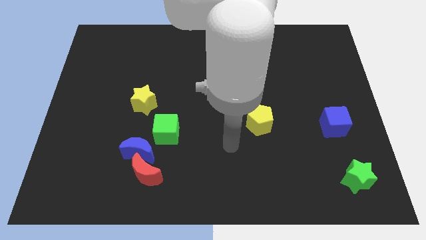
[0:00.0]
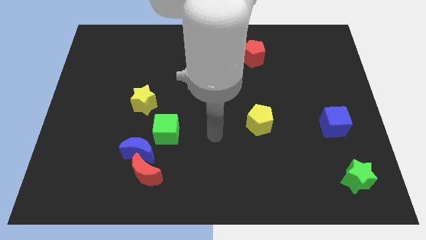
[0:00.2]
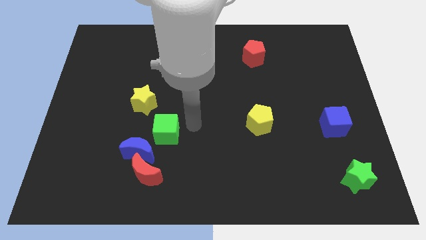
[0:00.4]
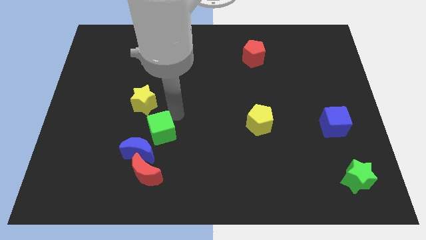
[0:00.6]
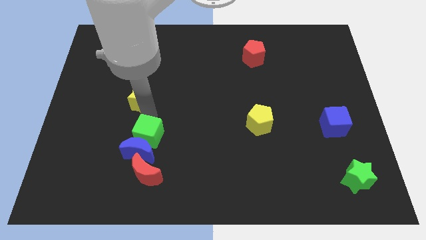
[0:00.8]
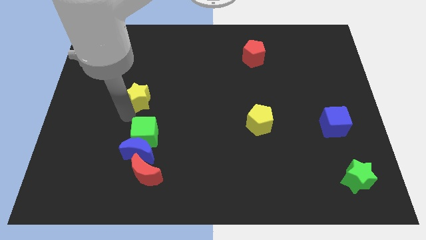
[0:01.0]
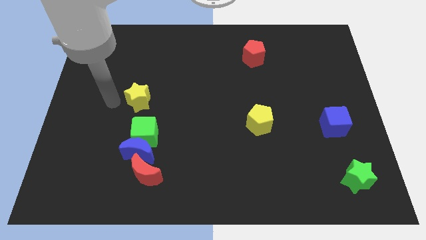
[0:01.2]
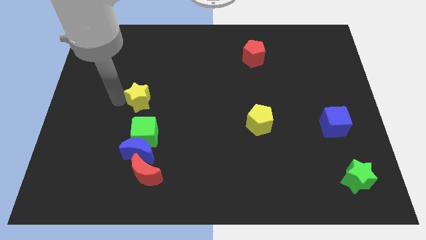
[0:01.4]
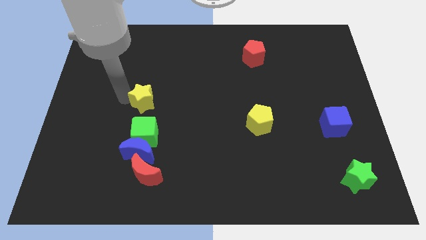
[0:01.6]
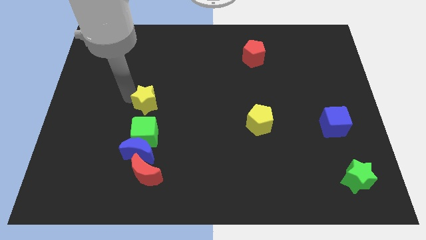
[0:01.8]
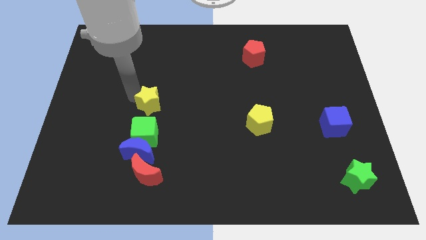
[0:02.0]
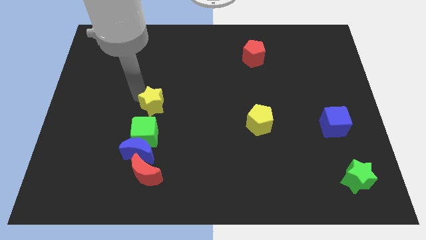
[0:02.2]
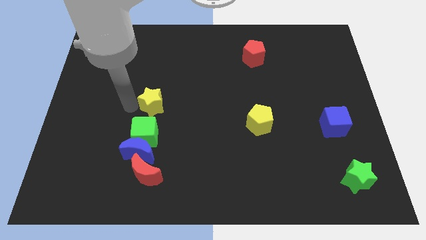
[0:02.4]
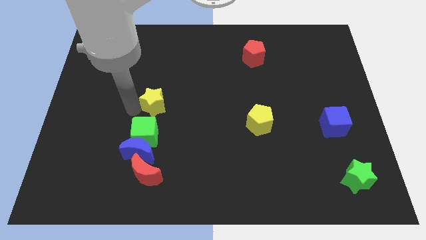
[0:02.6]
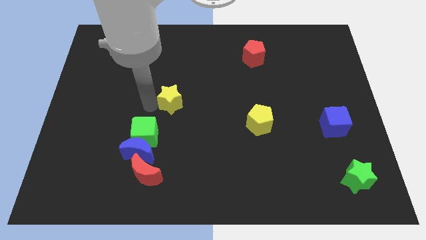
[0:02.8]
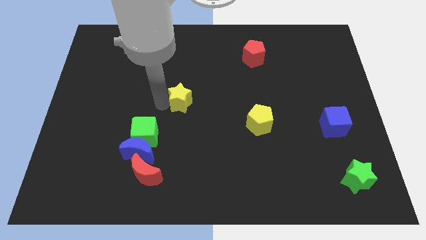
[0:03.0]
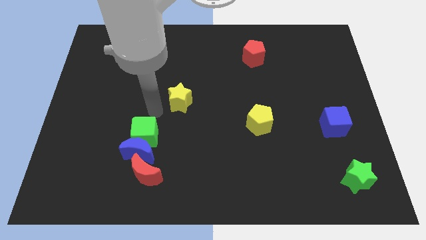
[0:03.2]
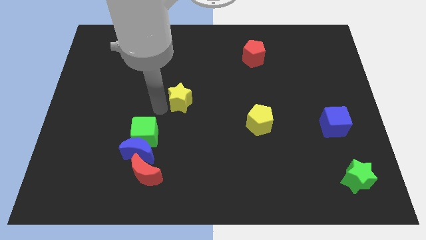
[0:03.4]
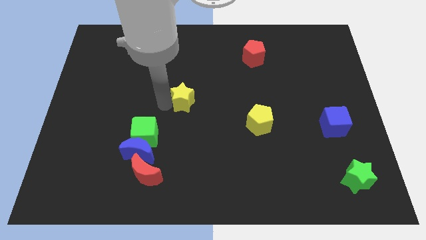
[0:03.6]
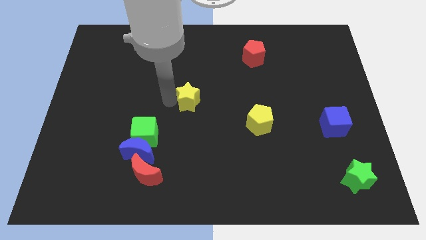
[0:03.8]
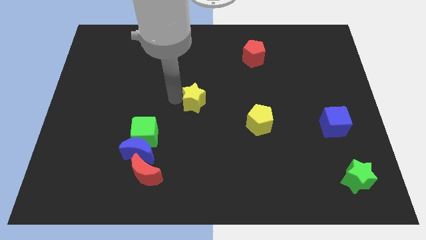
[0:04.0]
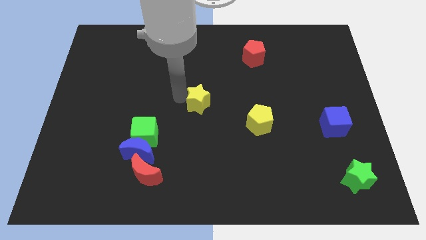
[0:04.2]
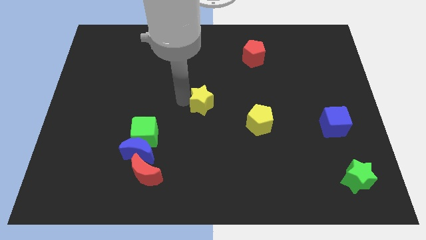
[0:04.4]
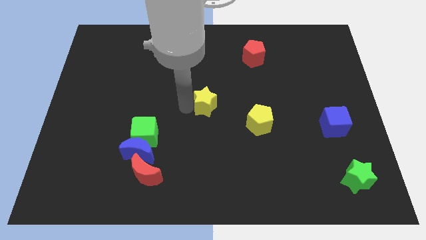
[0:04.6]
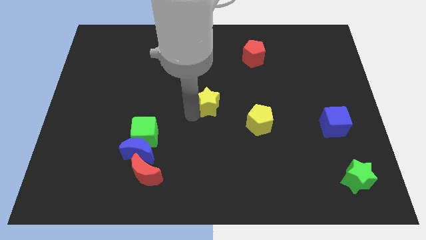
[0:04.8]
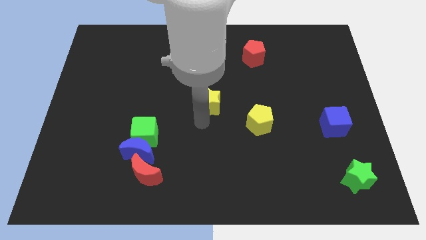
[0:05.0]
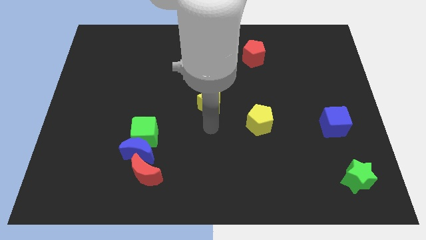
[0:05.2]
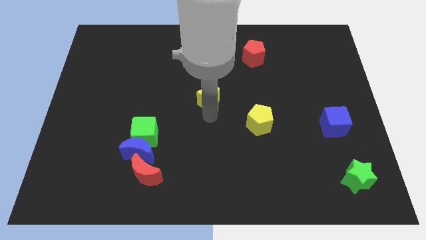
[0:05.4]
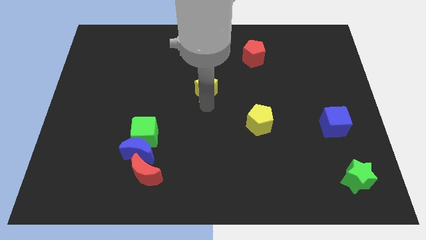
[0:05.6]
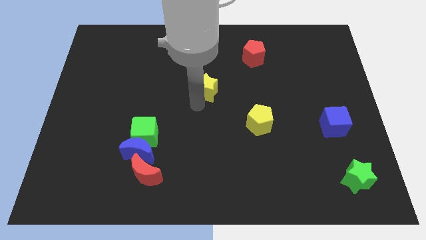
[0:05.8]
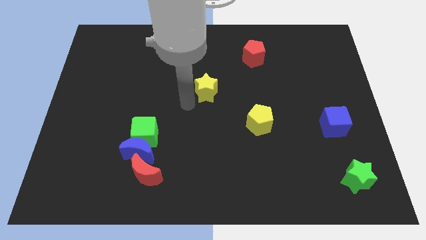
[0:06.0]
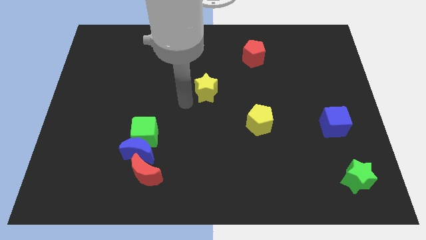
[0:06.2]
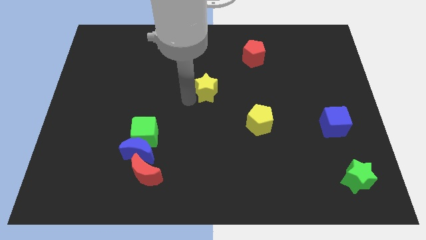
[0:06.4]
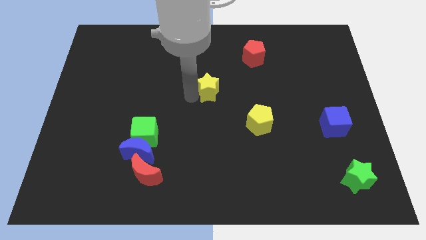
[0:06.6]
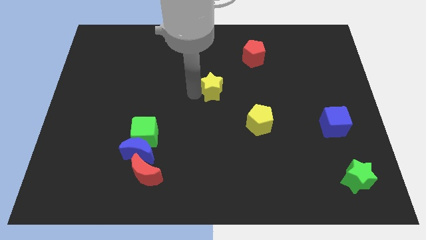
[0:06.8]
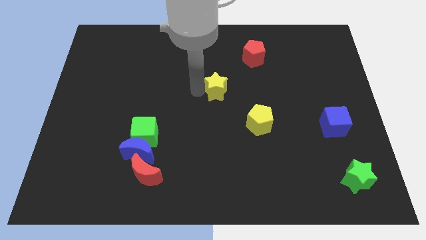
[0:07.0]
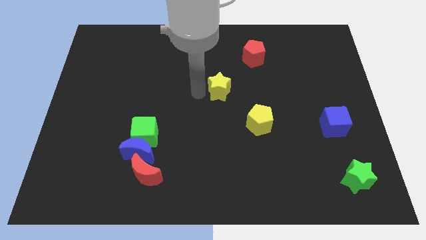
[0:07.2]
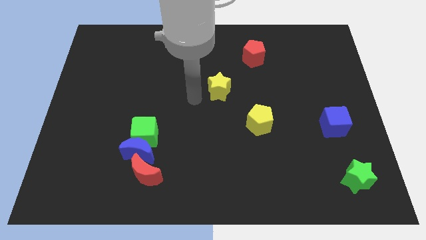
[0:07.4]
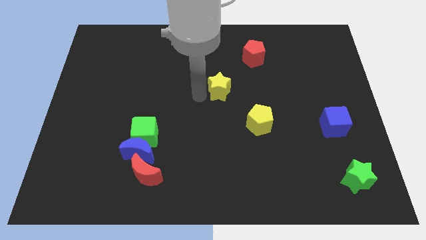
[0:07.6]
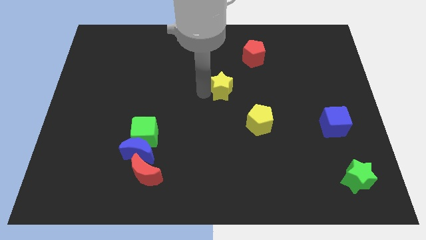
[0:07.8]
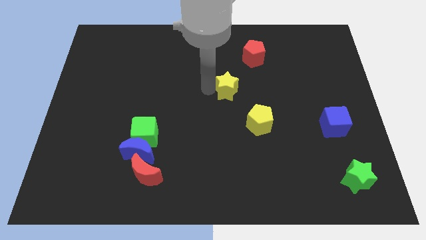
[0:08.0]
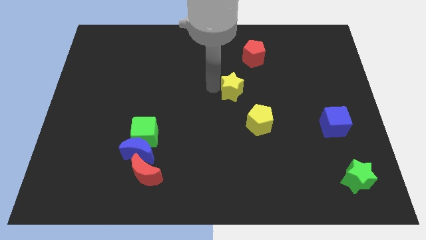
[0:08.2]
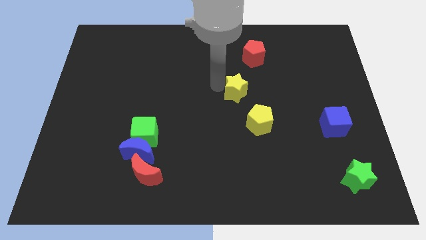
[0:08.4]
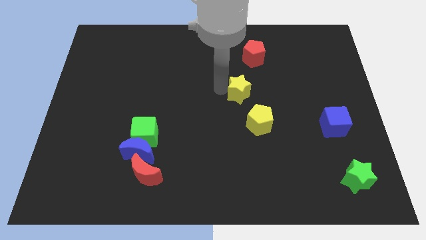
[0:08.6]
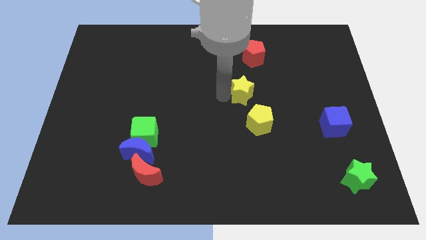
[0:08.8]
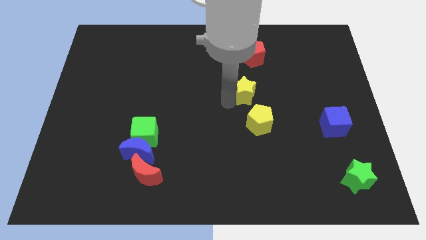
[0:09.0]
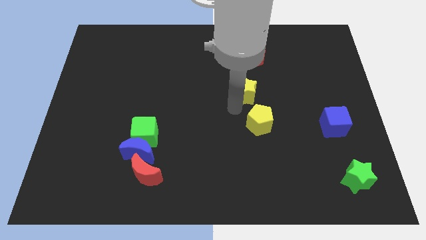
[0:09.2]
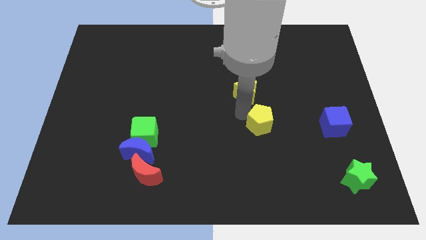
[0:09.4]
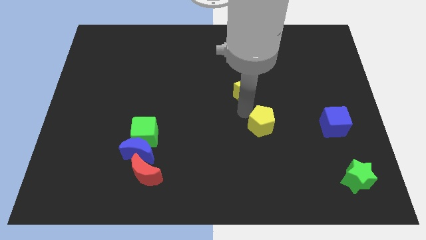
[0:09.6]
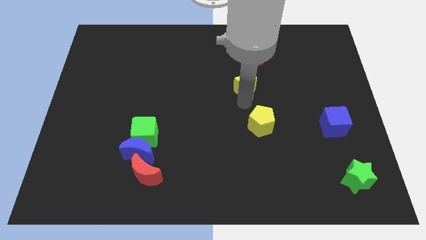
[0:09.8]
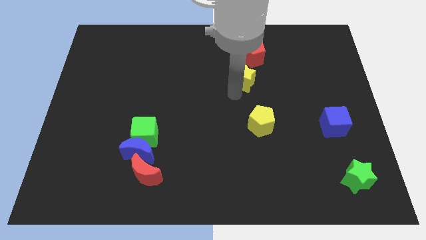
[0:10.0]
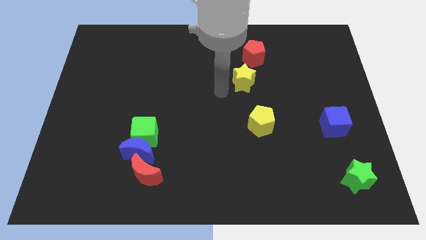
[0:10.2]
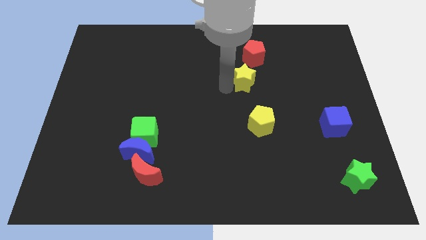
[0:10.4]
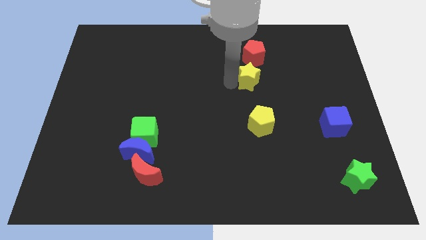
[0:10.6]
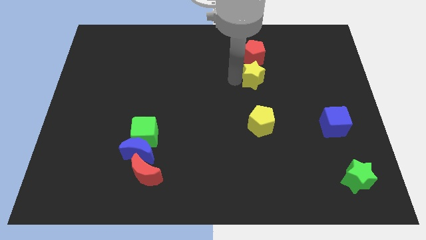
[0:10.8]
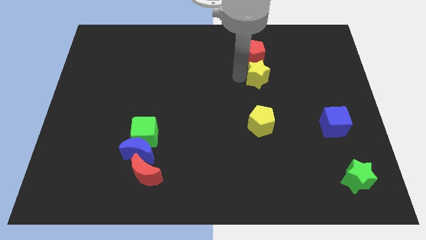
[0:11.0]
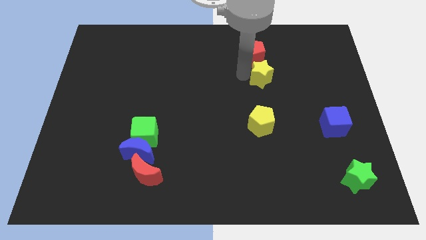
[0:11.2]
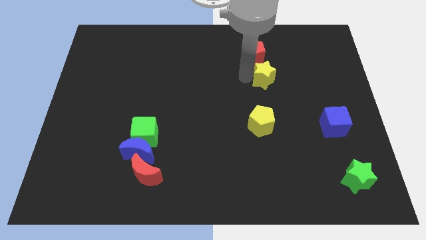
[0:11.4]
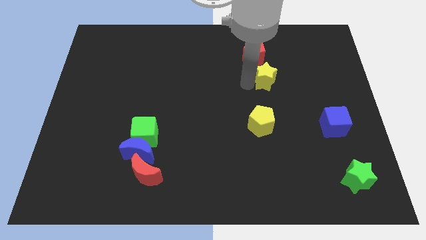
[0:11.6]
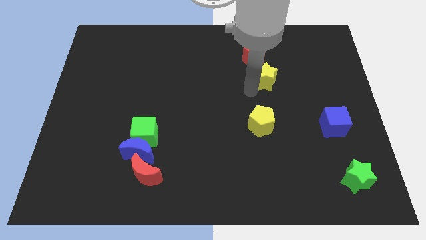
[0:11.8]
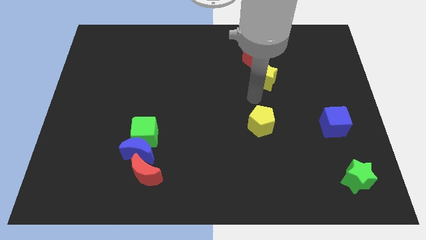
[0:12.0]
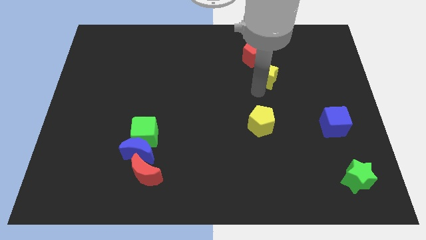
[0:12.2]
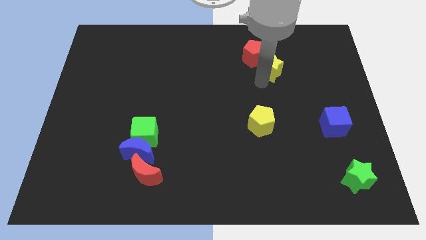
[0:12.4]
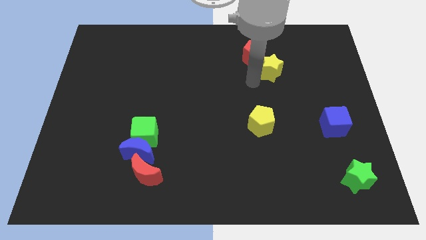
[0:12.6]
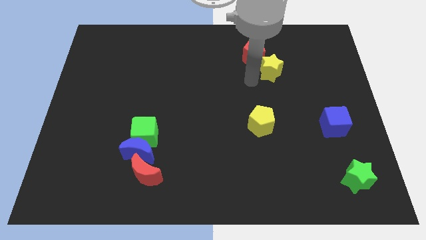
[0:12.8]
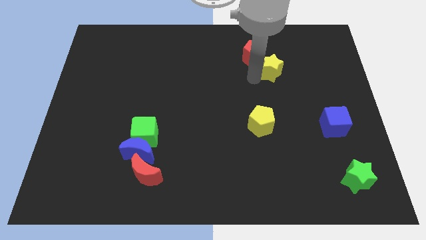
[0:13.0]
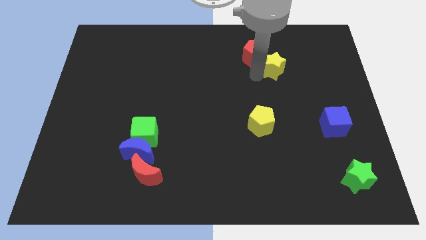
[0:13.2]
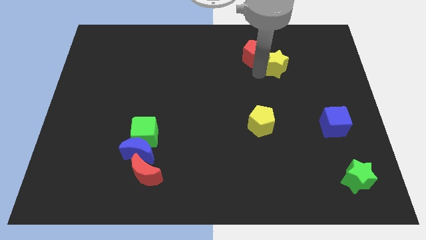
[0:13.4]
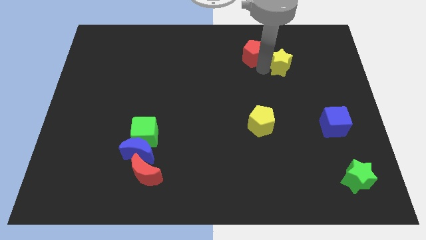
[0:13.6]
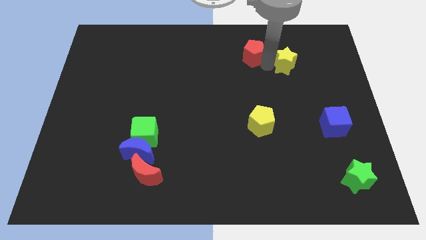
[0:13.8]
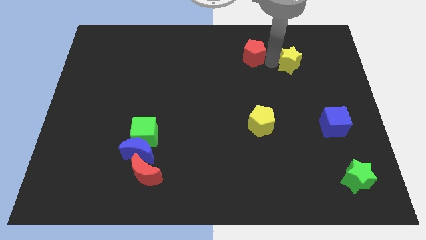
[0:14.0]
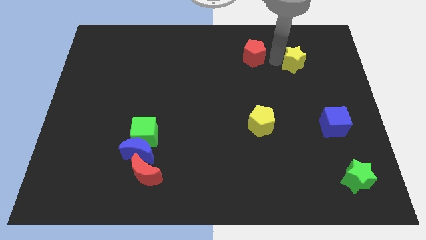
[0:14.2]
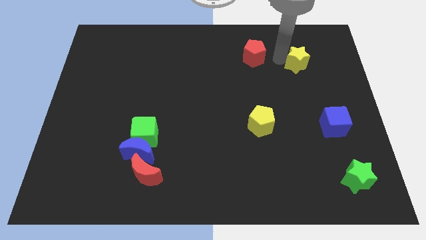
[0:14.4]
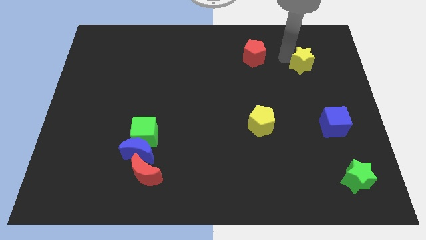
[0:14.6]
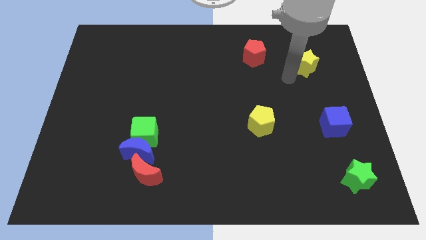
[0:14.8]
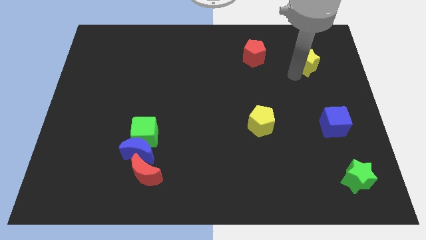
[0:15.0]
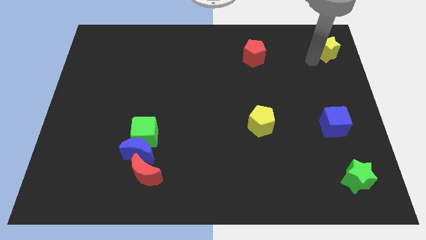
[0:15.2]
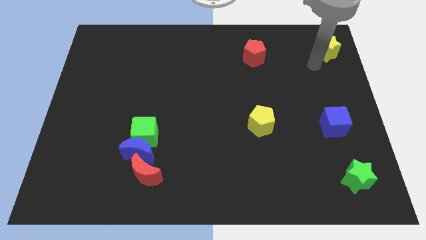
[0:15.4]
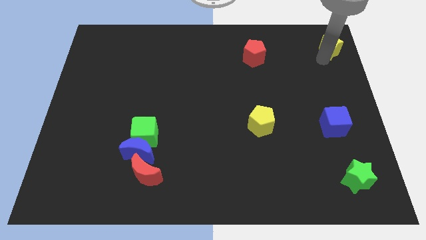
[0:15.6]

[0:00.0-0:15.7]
put the yellow star to the top right corner
